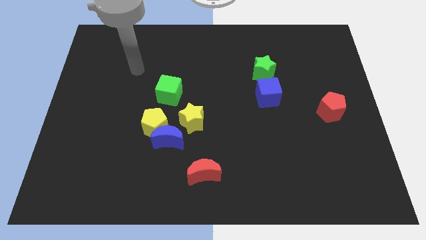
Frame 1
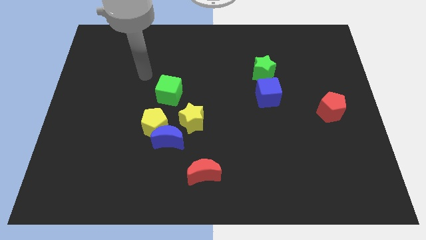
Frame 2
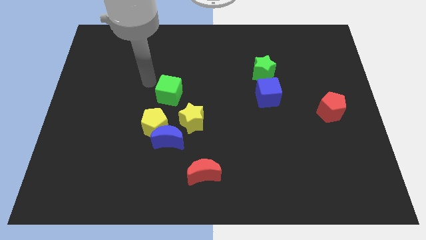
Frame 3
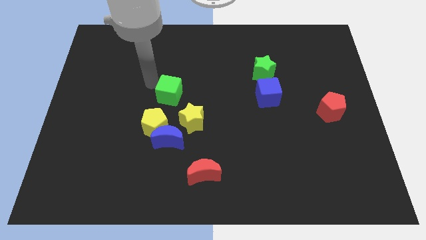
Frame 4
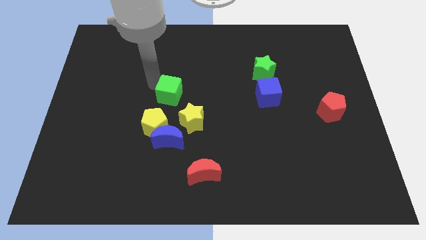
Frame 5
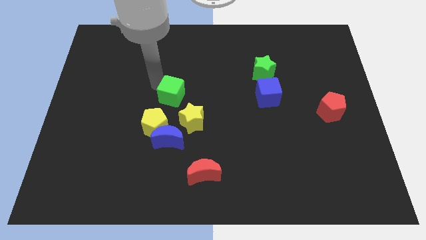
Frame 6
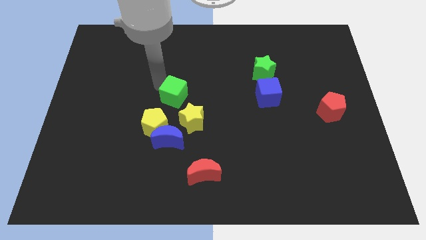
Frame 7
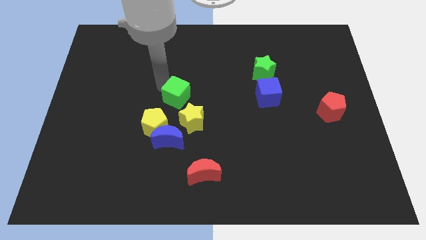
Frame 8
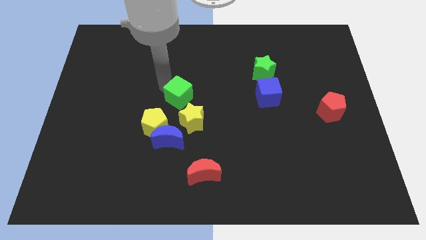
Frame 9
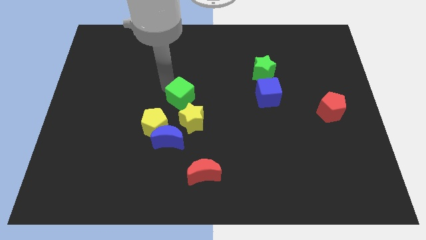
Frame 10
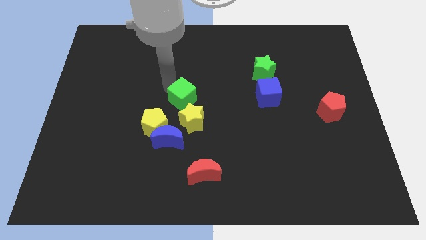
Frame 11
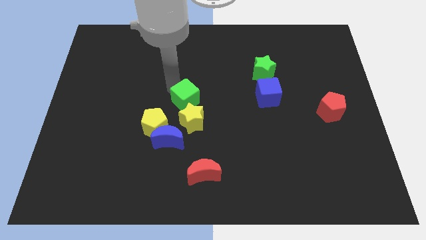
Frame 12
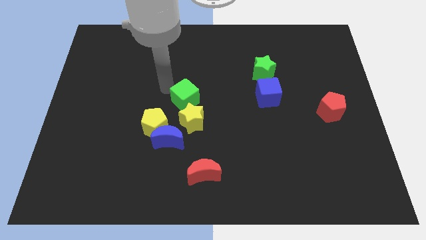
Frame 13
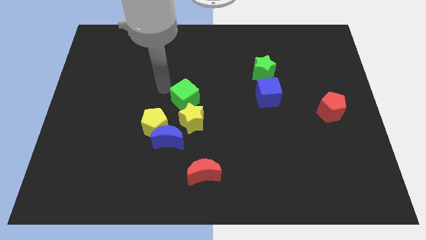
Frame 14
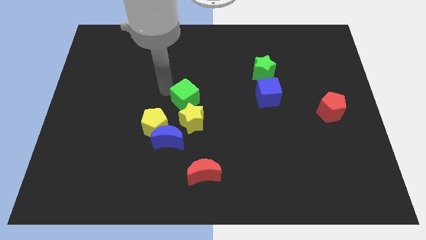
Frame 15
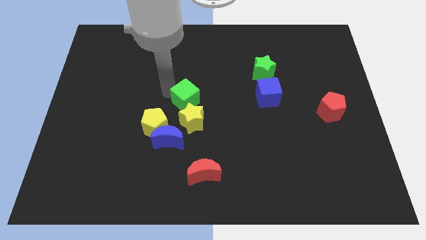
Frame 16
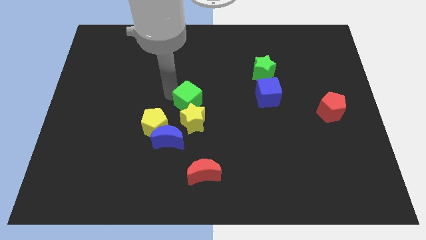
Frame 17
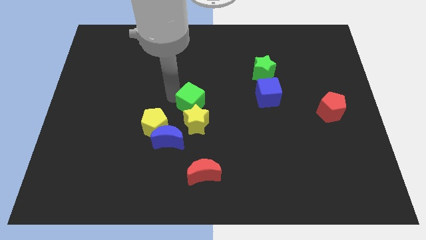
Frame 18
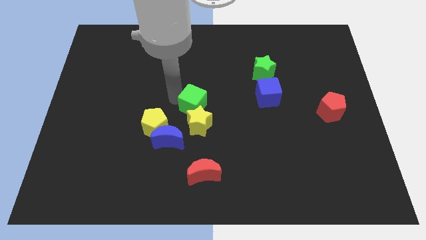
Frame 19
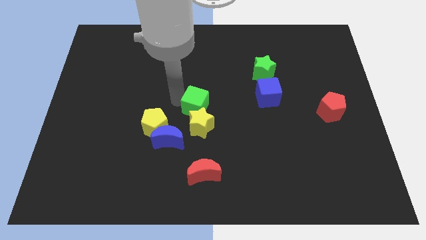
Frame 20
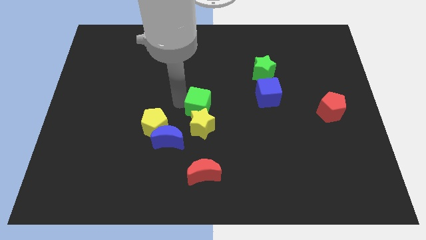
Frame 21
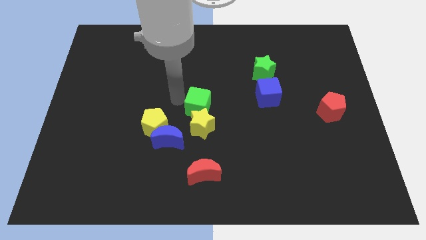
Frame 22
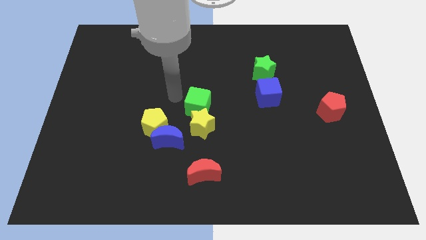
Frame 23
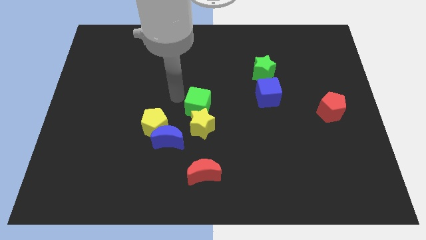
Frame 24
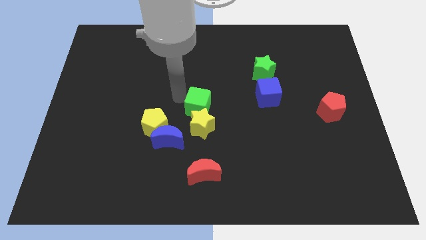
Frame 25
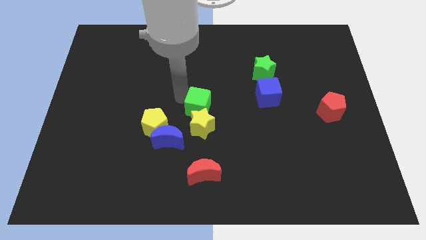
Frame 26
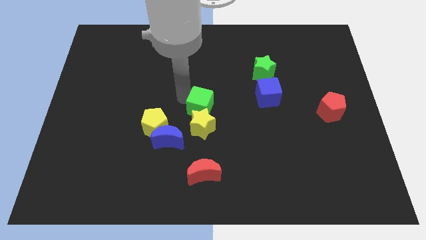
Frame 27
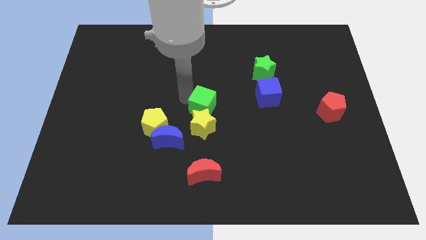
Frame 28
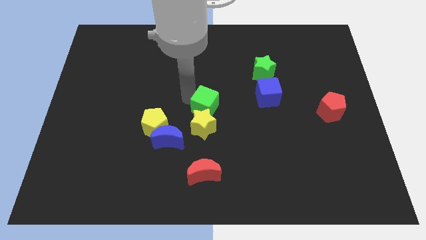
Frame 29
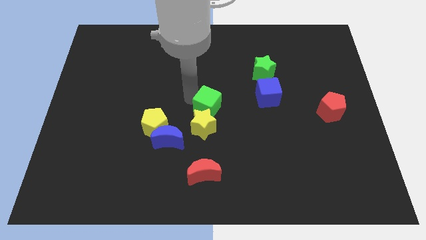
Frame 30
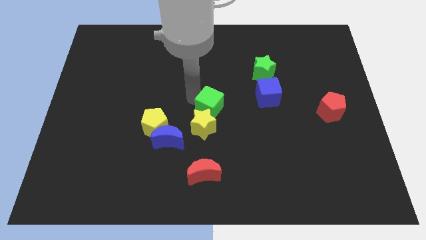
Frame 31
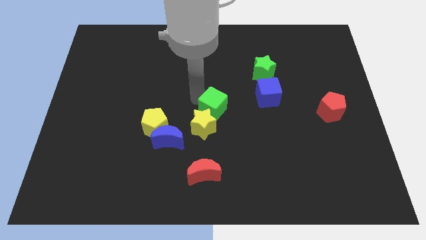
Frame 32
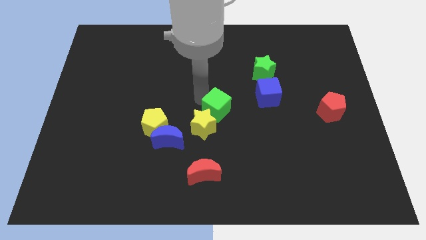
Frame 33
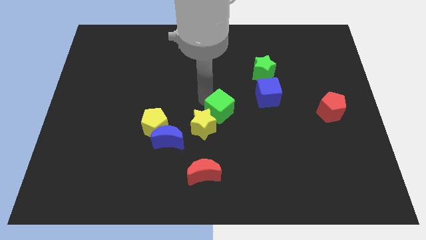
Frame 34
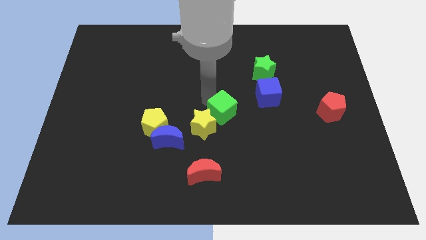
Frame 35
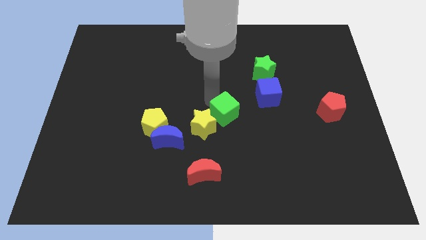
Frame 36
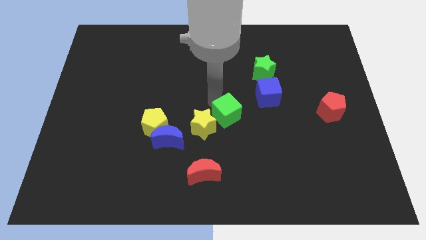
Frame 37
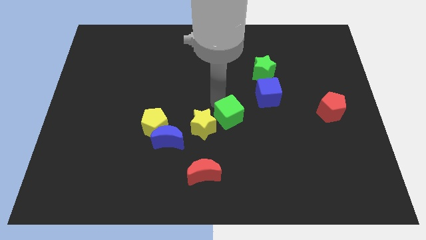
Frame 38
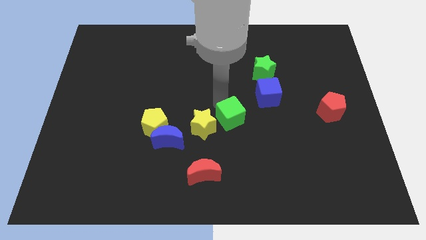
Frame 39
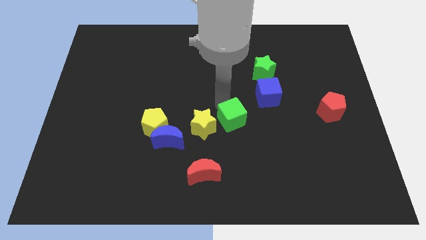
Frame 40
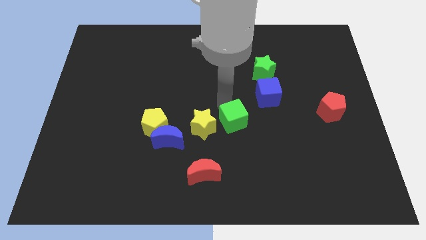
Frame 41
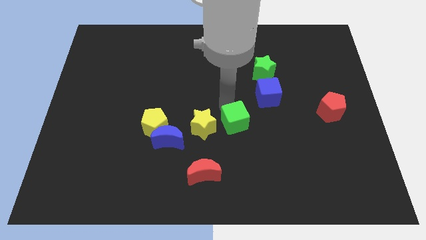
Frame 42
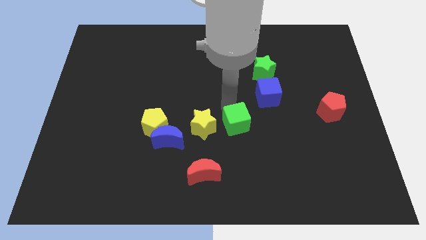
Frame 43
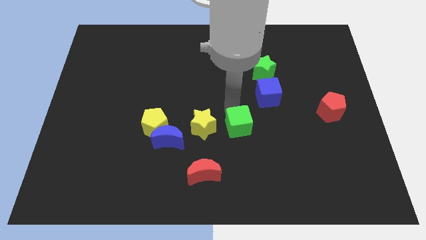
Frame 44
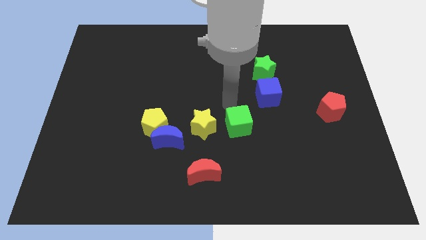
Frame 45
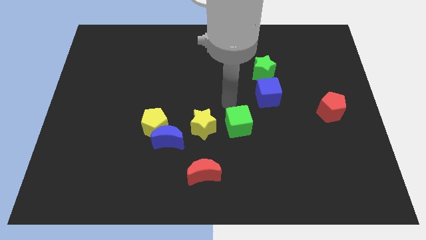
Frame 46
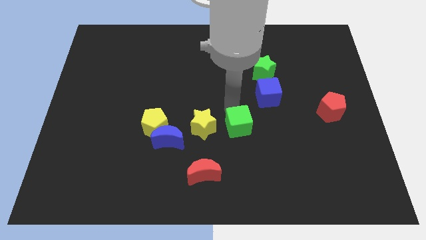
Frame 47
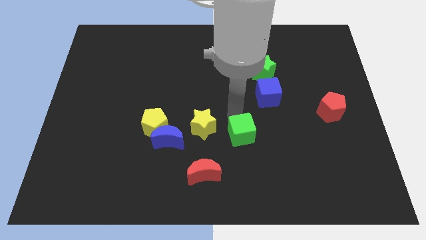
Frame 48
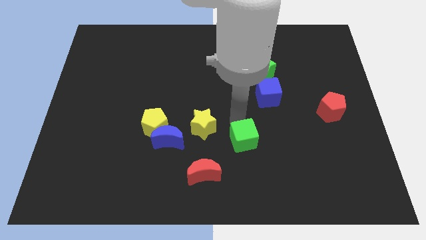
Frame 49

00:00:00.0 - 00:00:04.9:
slide the green cube downwards and then right

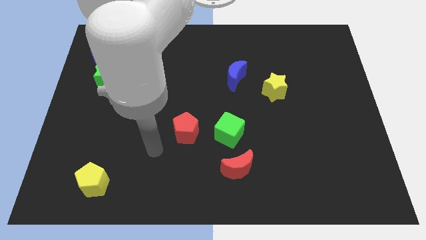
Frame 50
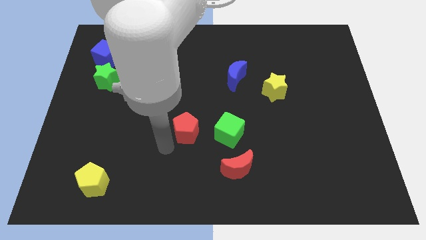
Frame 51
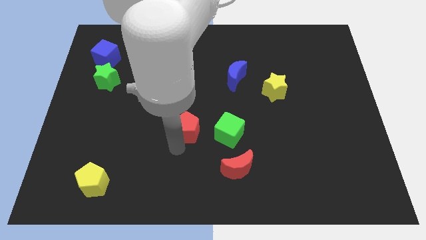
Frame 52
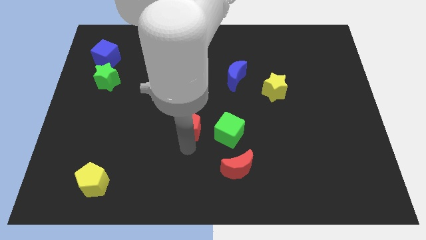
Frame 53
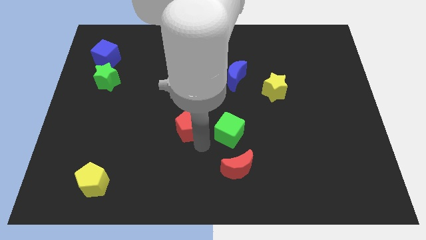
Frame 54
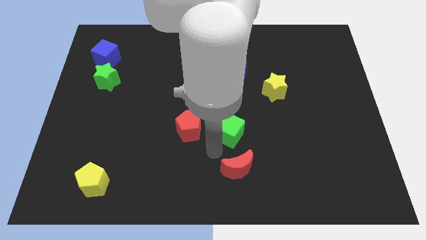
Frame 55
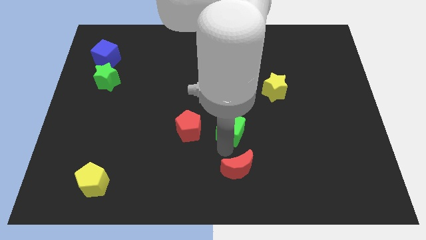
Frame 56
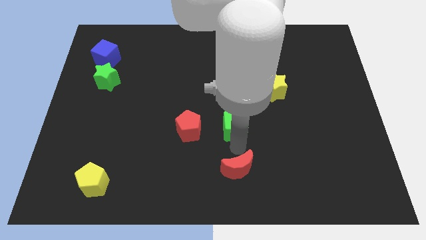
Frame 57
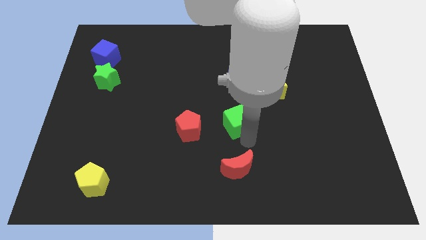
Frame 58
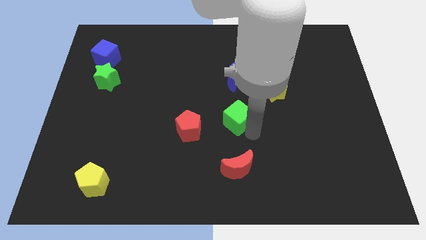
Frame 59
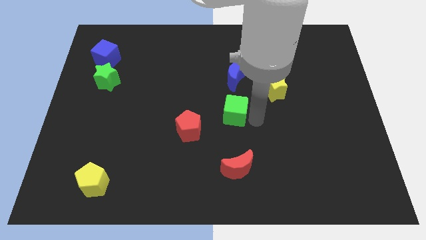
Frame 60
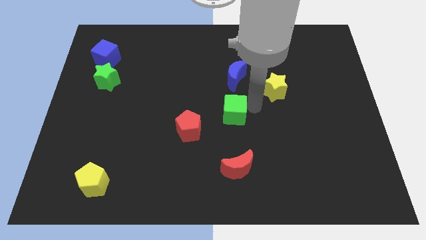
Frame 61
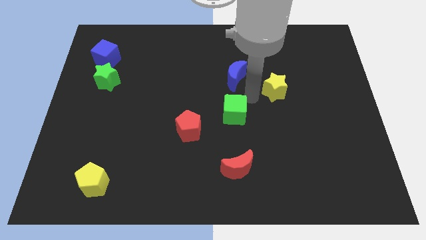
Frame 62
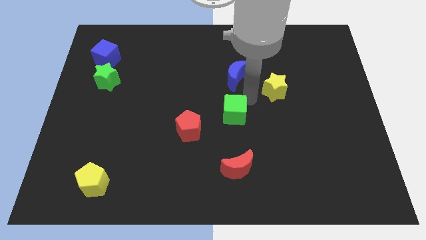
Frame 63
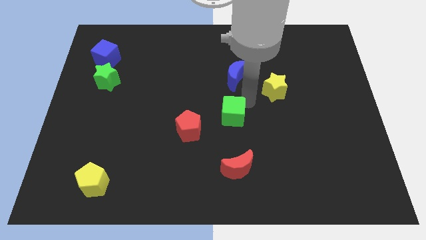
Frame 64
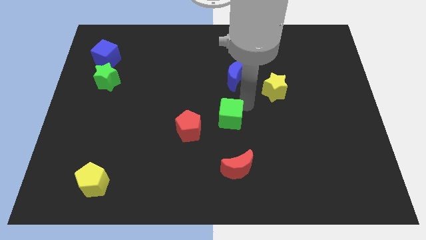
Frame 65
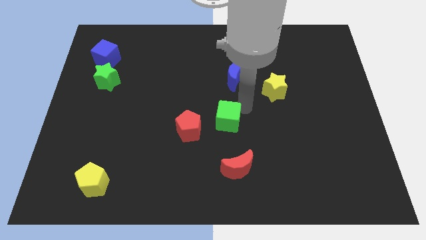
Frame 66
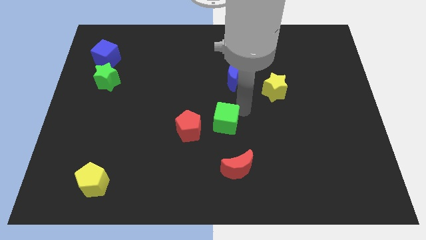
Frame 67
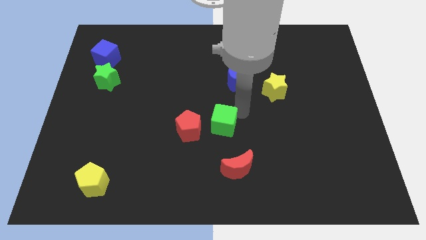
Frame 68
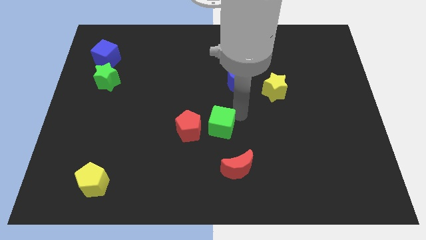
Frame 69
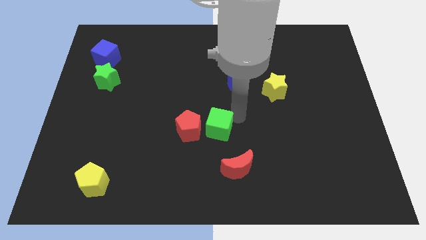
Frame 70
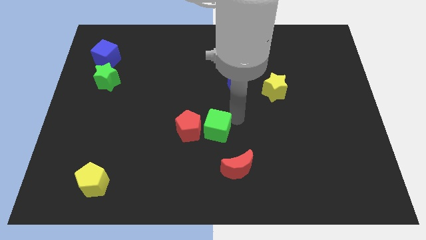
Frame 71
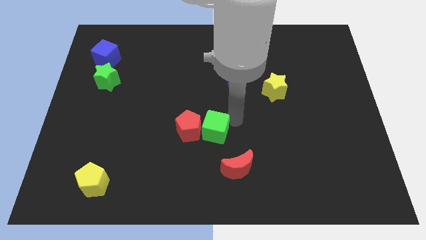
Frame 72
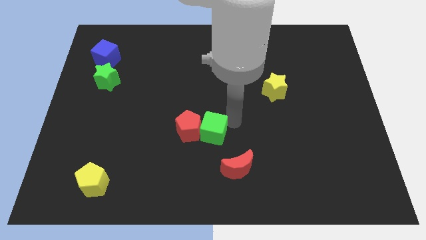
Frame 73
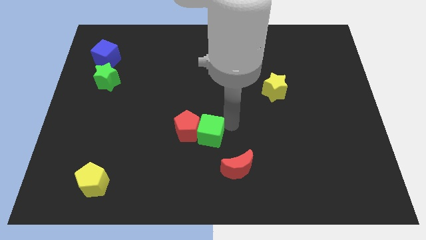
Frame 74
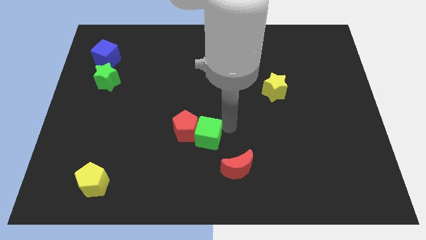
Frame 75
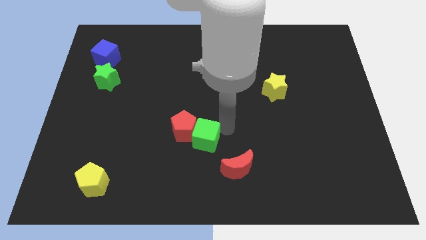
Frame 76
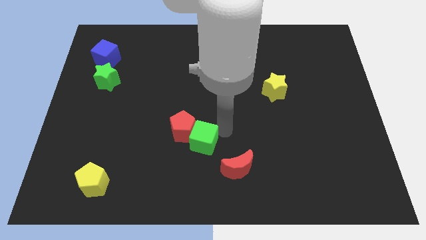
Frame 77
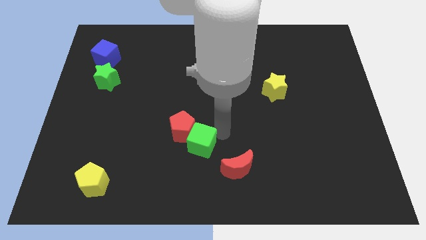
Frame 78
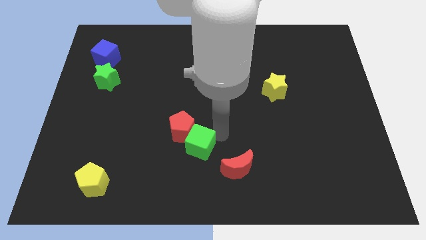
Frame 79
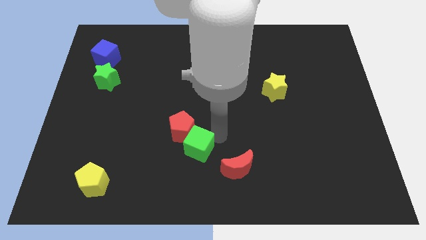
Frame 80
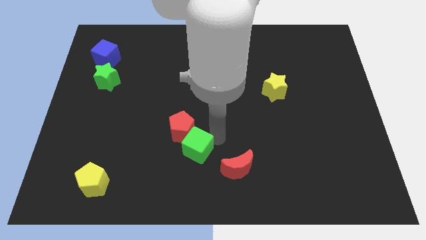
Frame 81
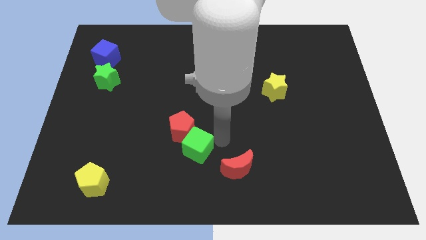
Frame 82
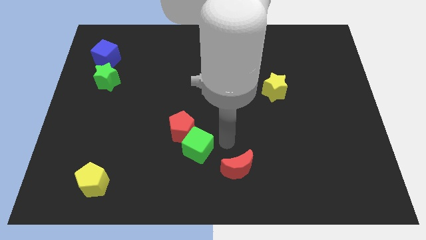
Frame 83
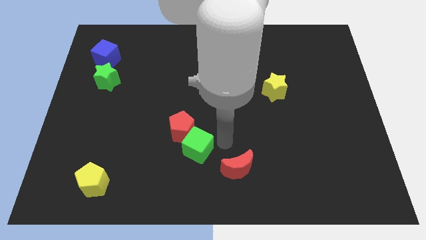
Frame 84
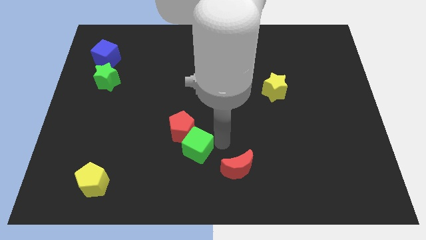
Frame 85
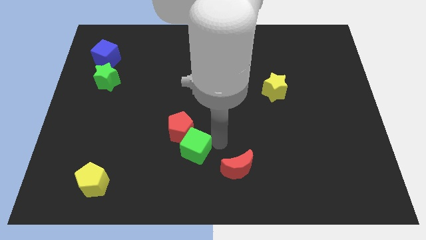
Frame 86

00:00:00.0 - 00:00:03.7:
slightly push the green cube to the left
